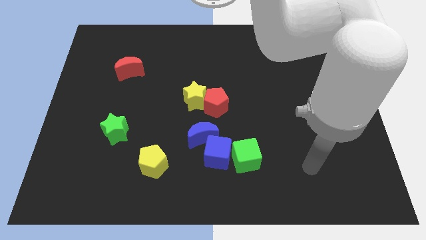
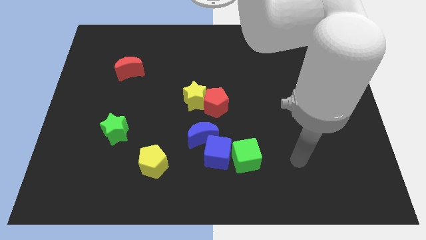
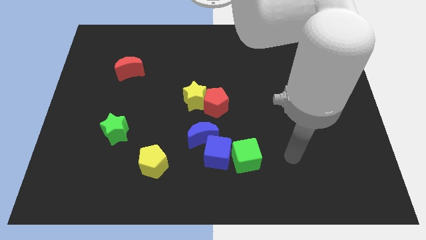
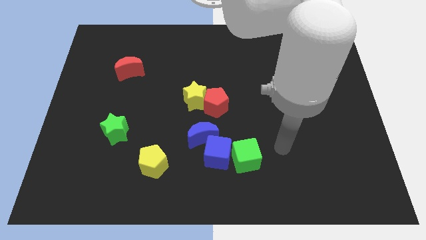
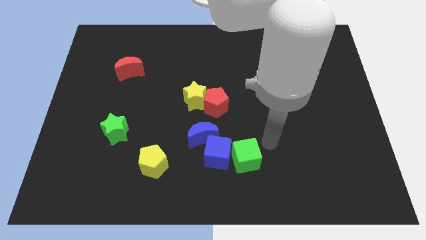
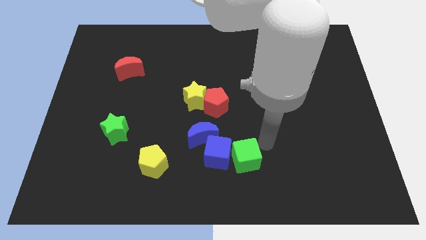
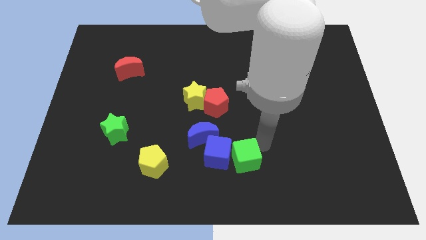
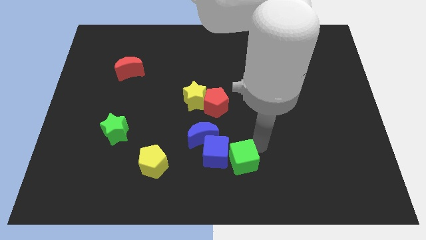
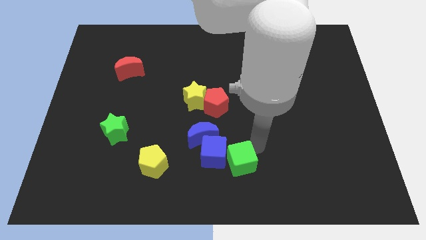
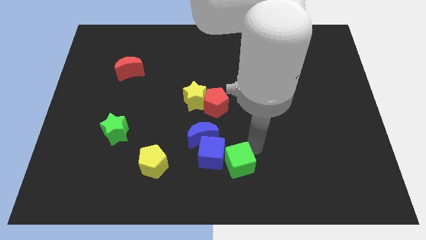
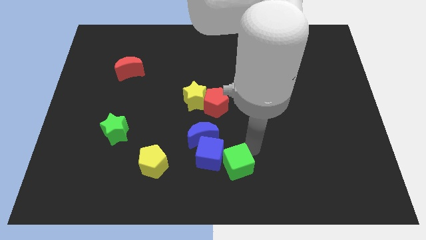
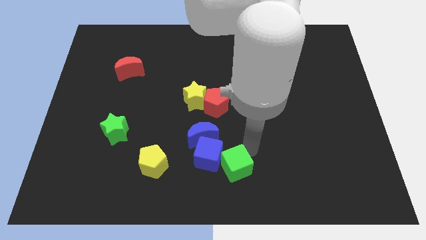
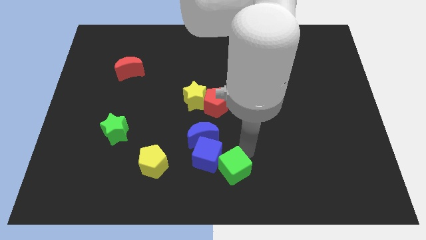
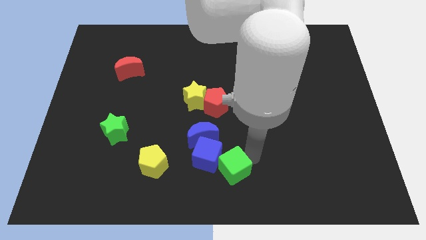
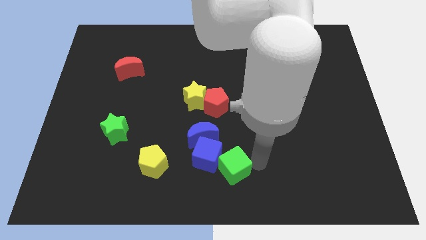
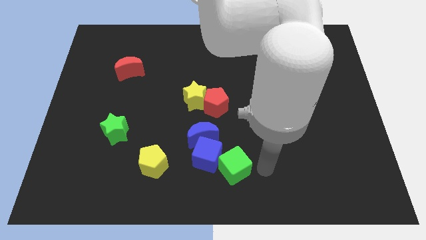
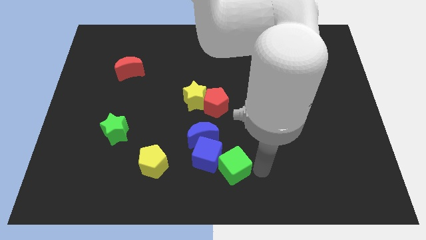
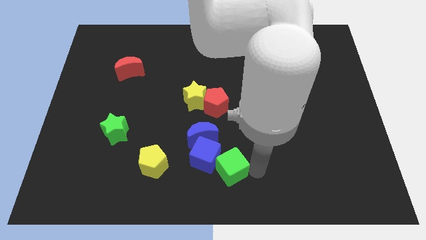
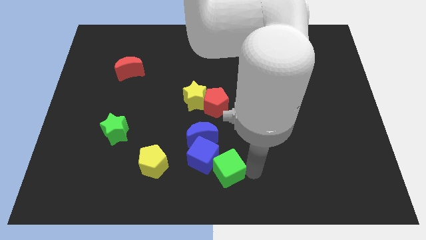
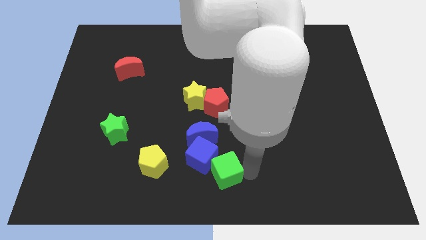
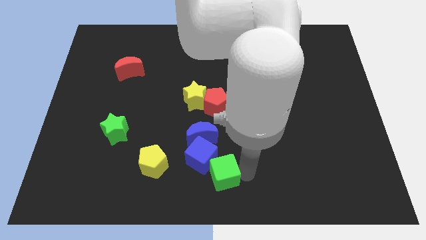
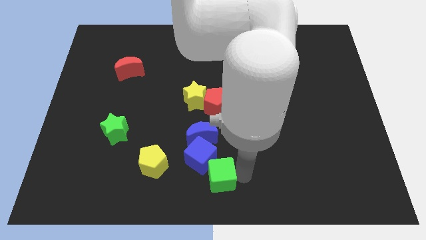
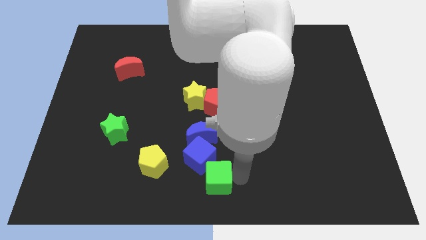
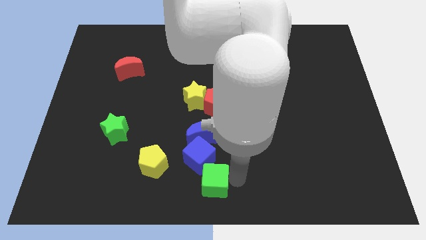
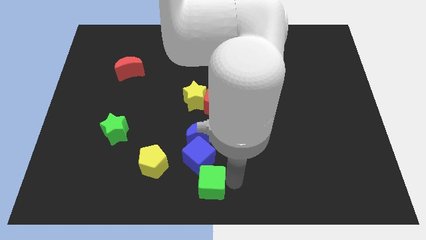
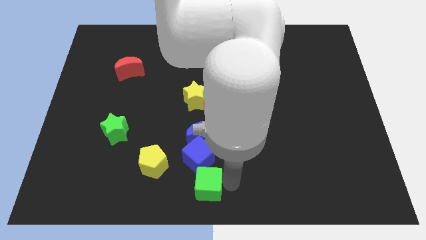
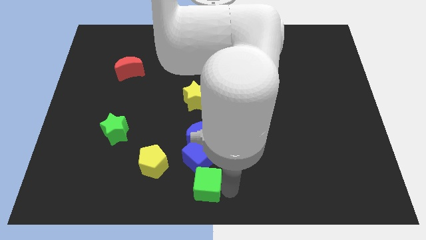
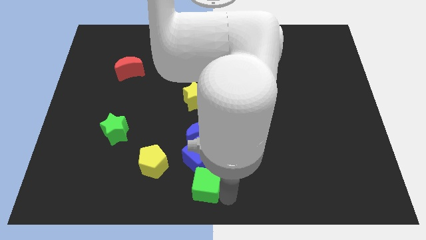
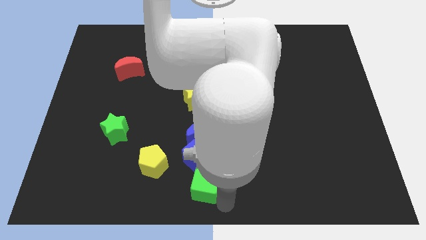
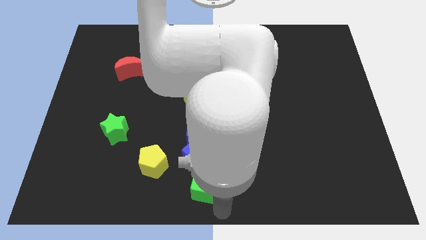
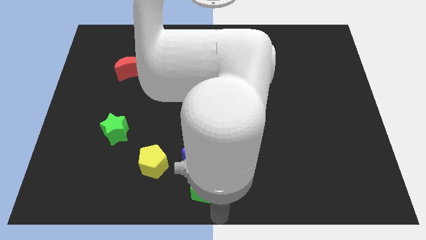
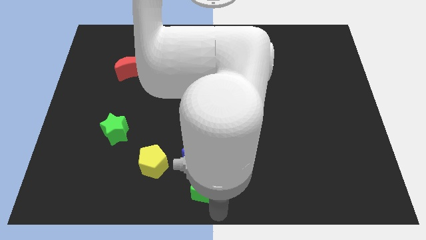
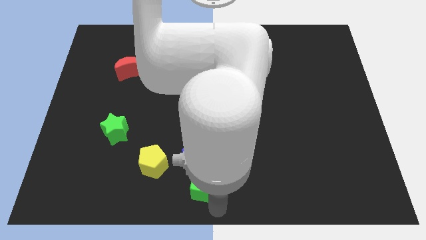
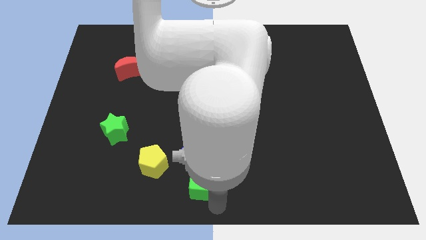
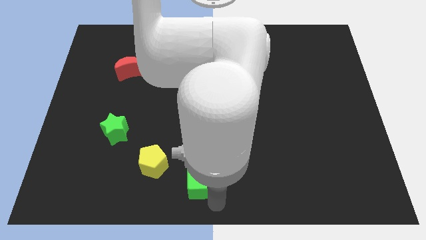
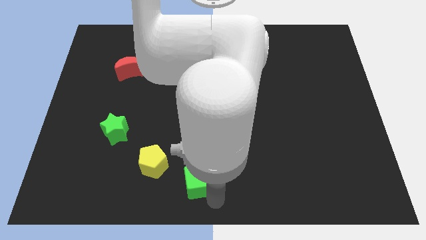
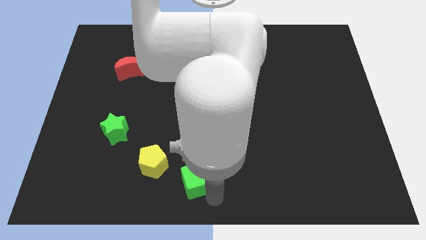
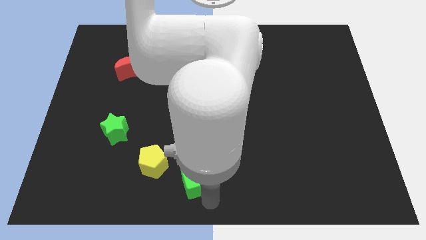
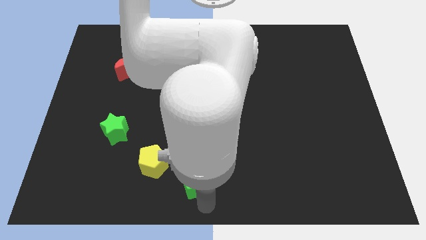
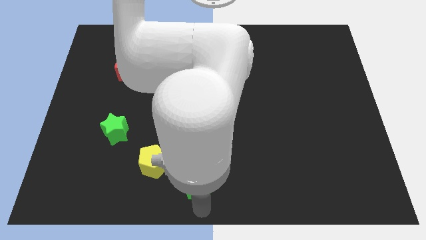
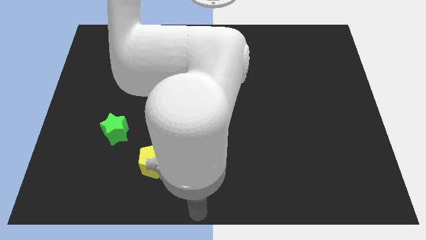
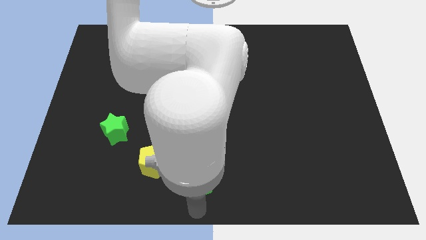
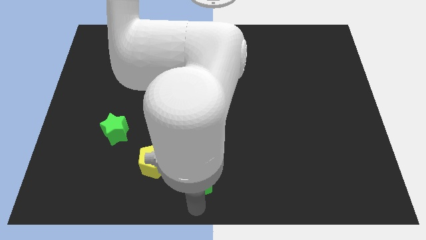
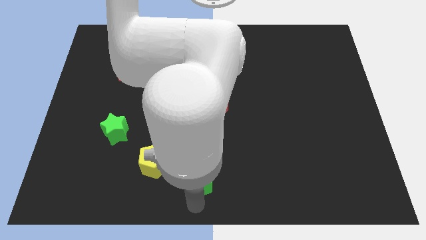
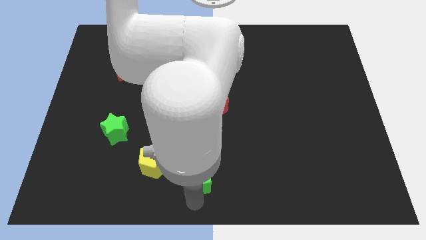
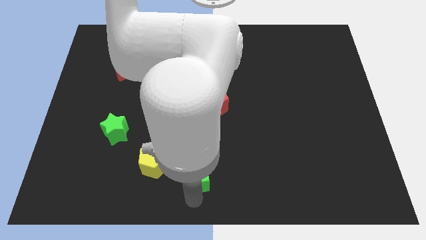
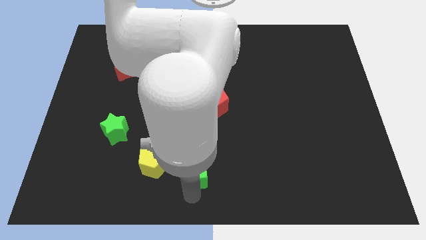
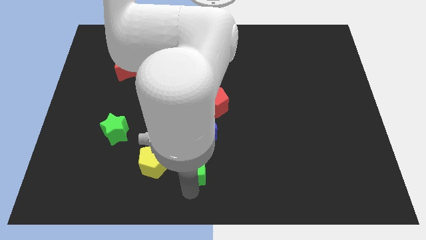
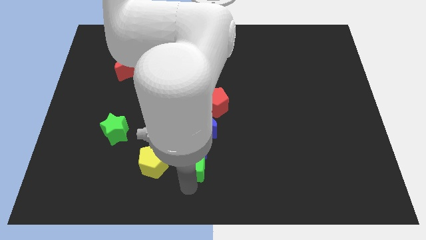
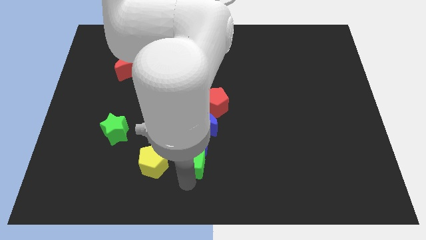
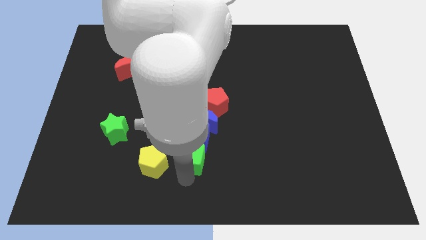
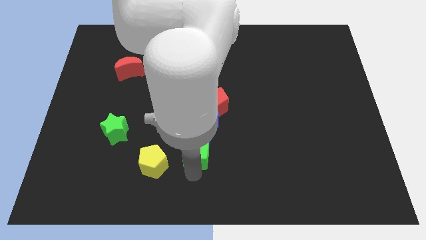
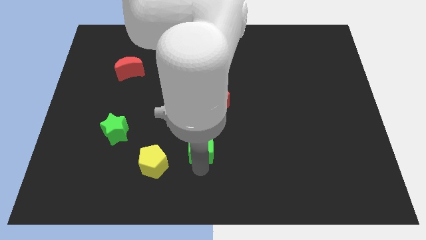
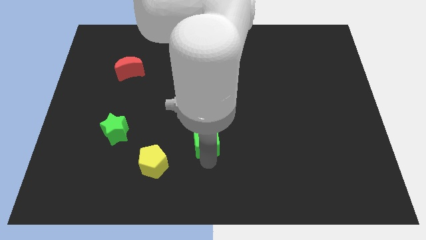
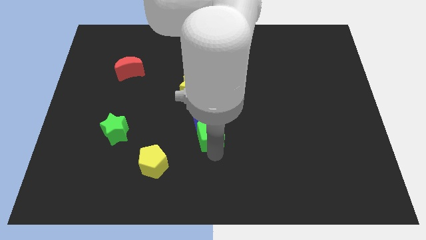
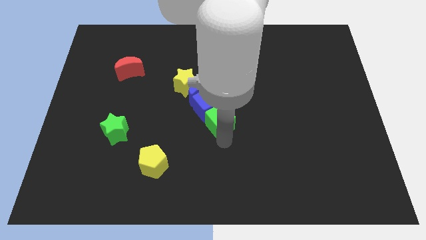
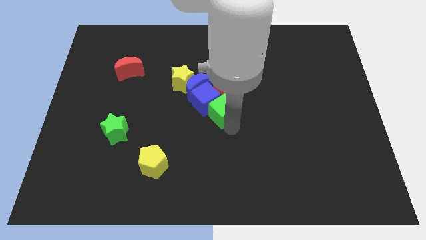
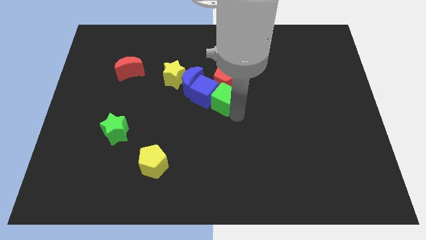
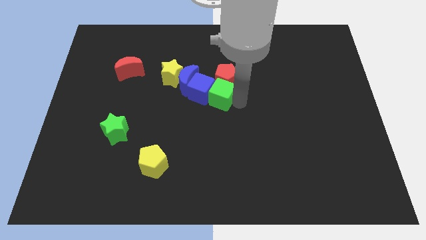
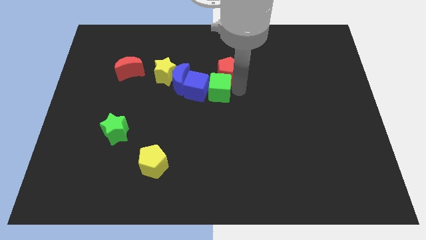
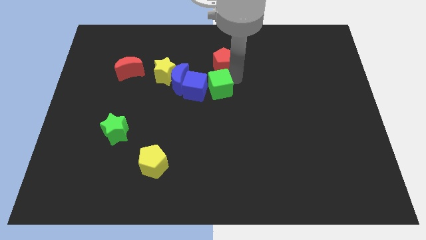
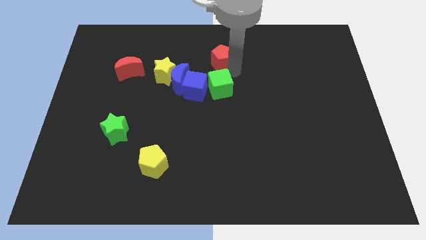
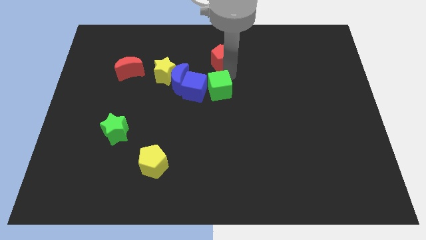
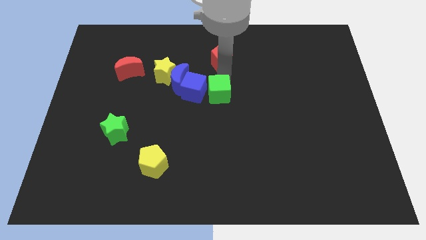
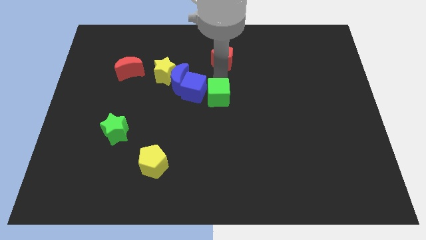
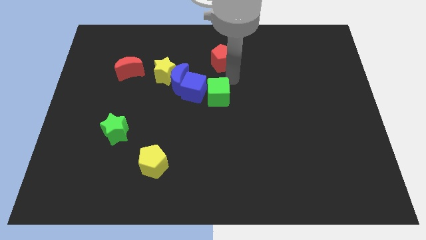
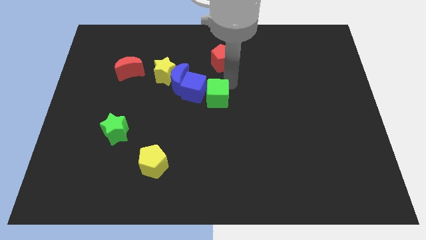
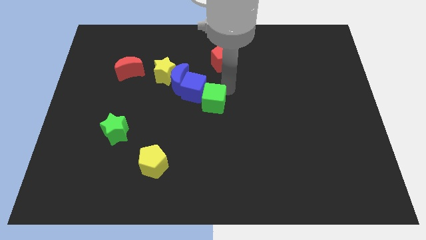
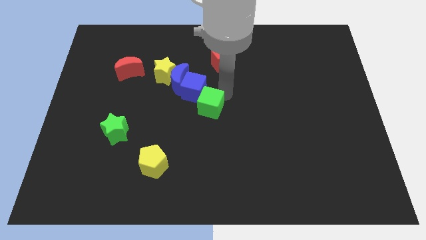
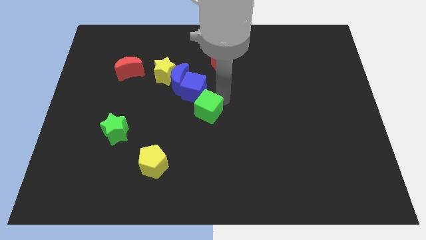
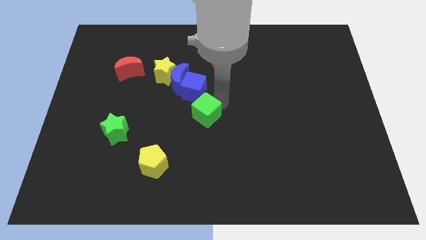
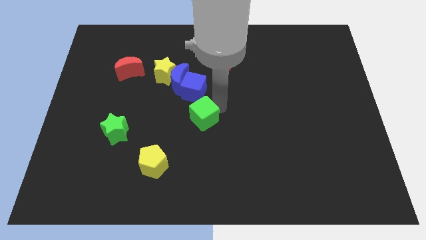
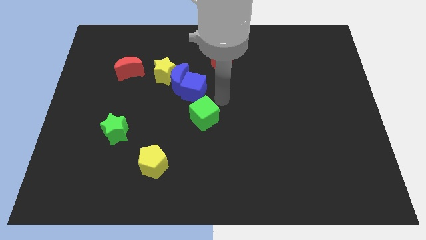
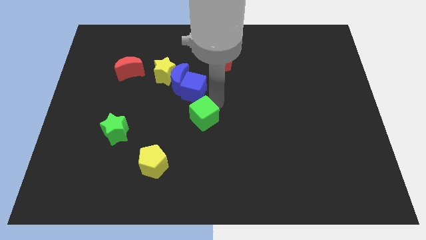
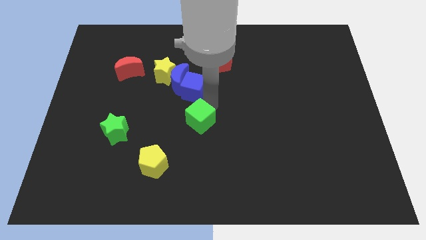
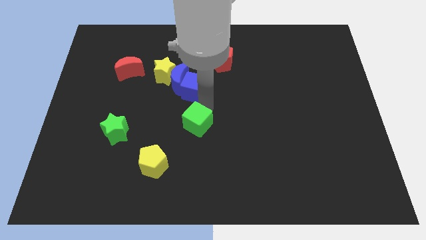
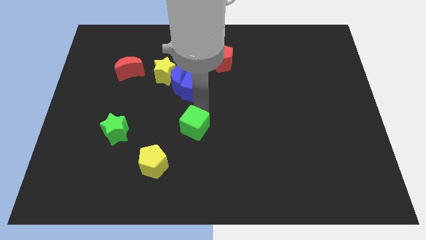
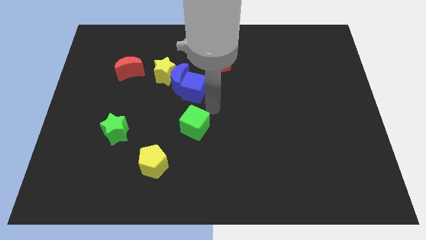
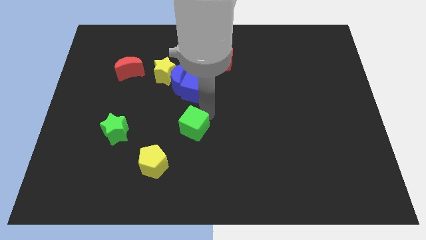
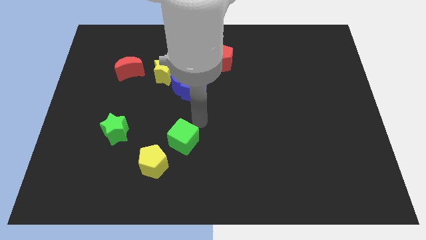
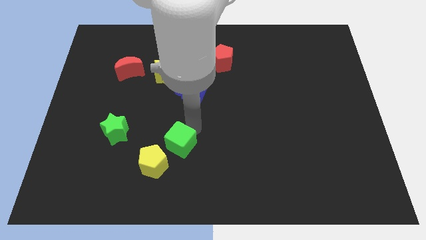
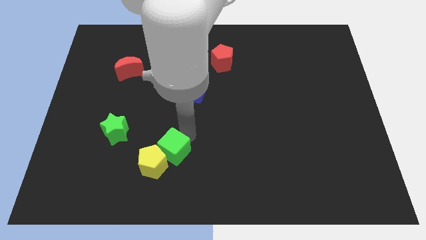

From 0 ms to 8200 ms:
put the green cube towards the yellow pentagon
